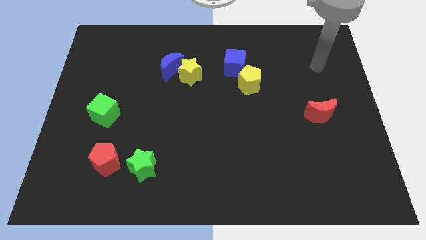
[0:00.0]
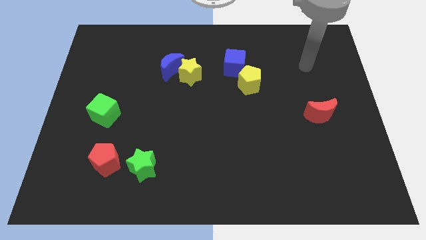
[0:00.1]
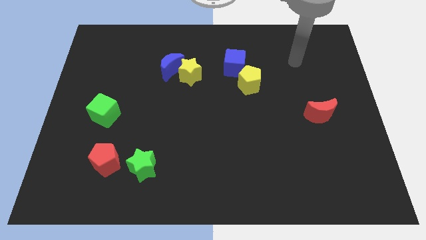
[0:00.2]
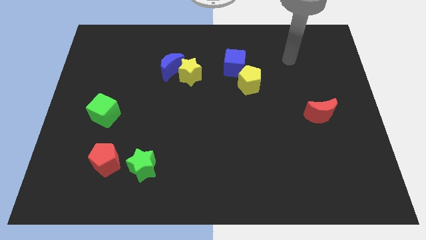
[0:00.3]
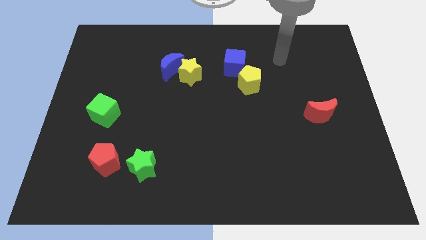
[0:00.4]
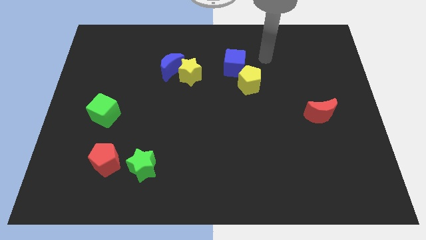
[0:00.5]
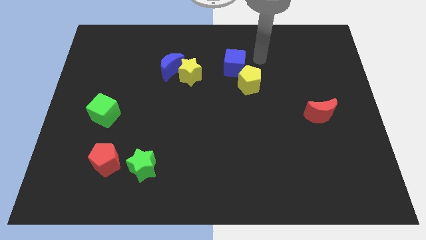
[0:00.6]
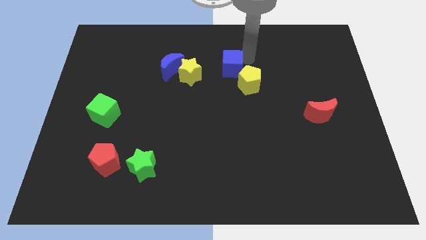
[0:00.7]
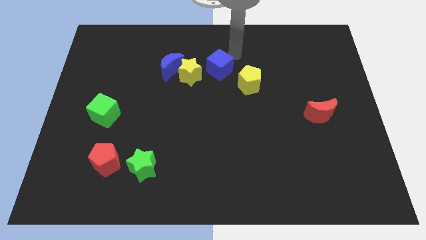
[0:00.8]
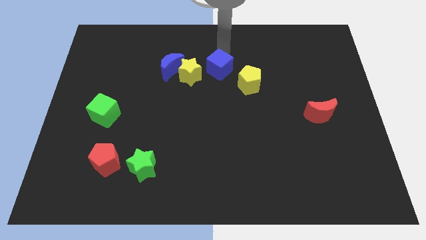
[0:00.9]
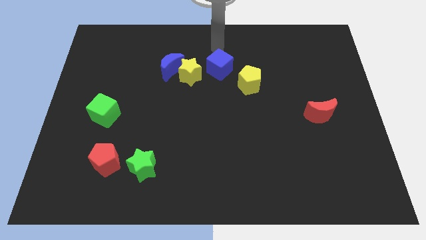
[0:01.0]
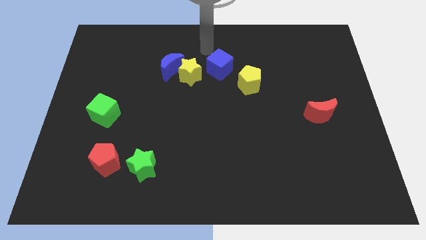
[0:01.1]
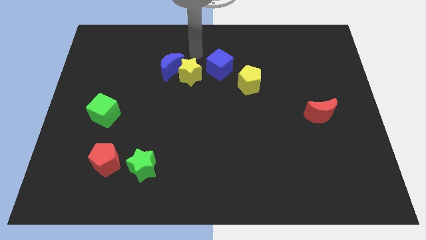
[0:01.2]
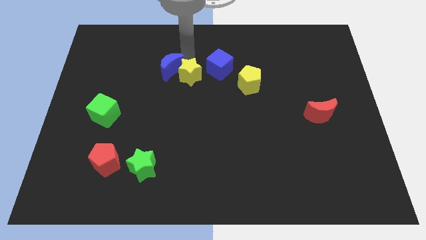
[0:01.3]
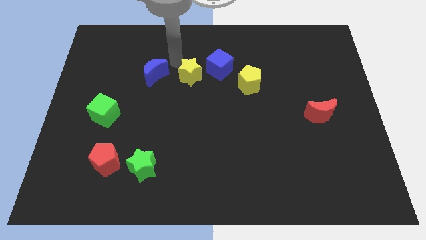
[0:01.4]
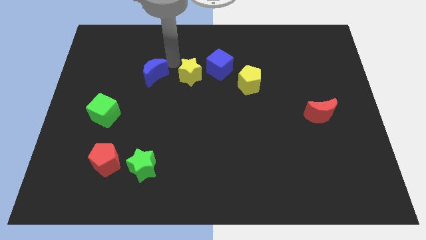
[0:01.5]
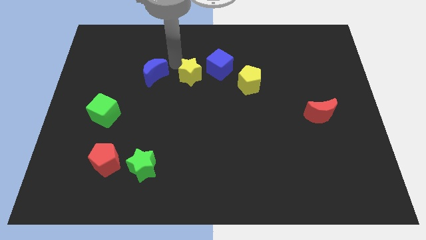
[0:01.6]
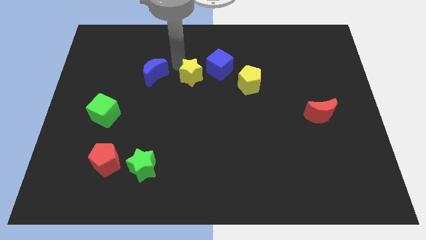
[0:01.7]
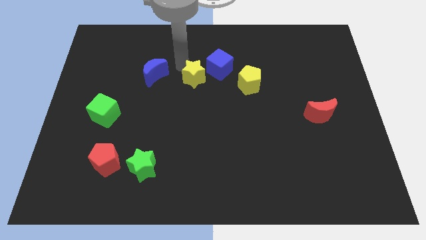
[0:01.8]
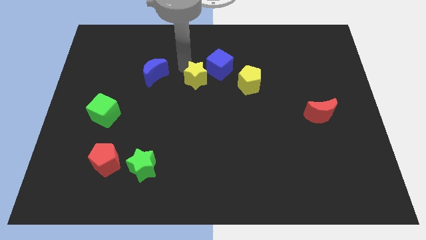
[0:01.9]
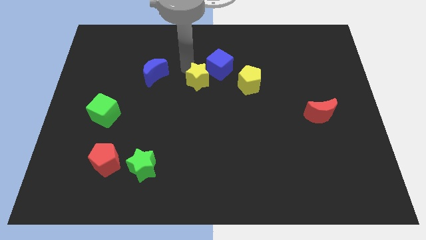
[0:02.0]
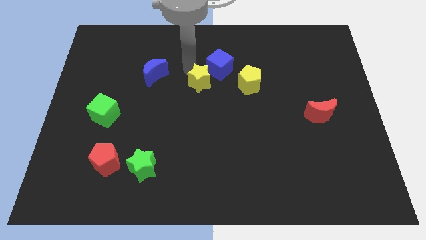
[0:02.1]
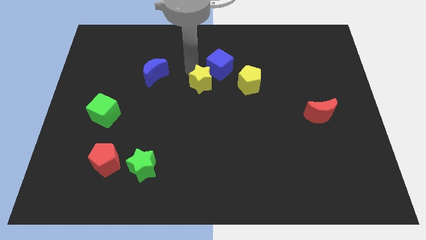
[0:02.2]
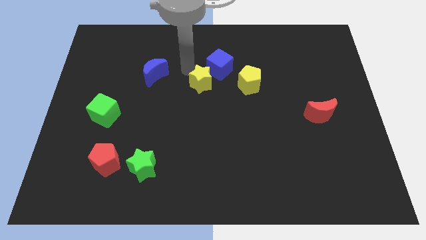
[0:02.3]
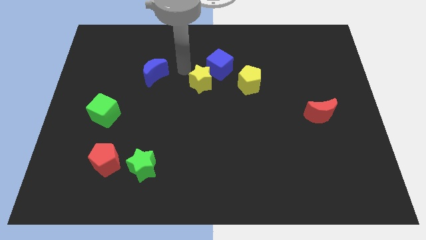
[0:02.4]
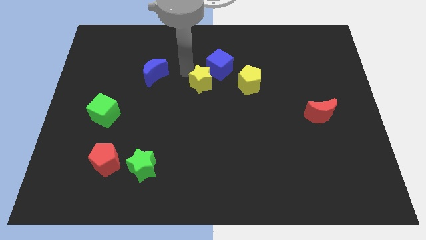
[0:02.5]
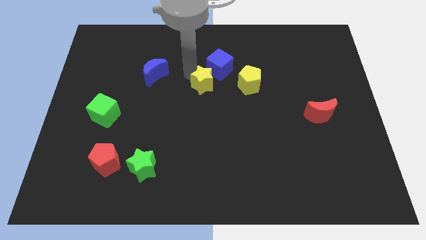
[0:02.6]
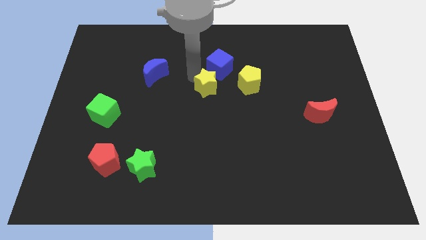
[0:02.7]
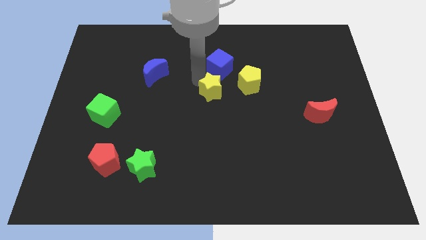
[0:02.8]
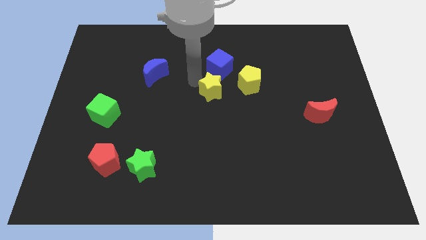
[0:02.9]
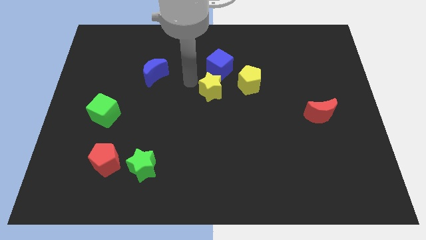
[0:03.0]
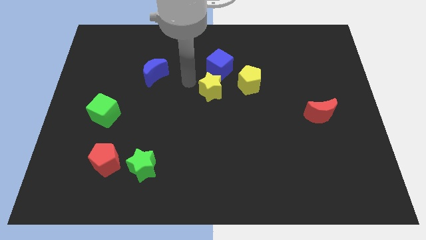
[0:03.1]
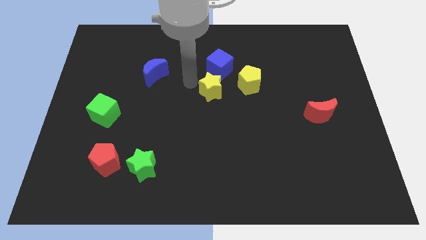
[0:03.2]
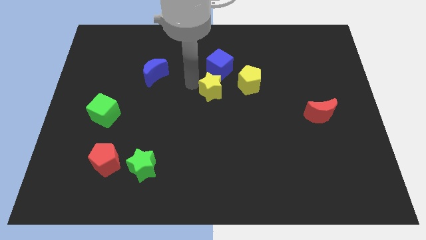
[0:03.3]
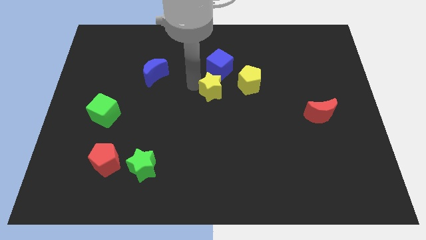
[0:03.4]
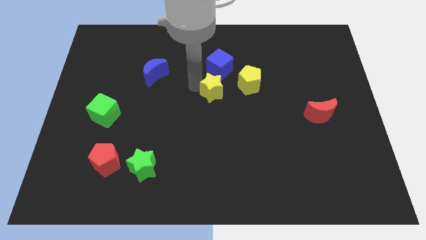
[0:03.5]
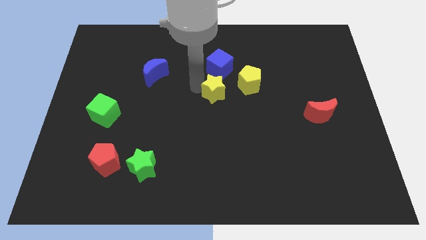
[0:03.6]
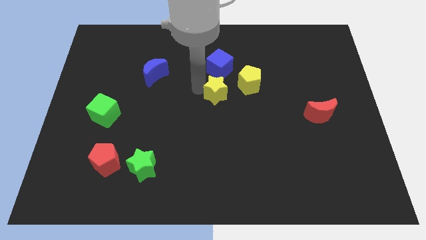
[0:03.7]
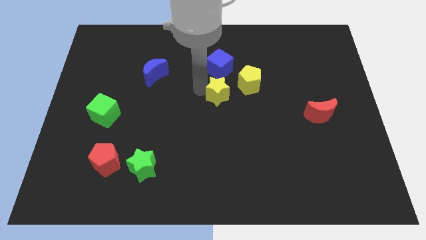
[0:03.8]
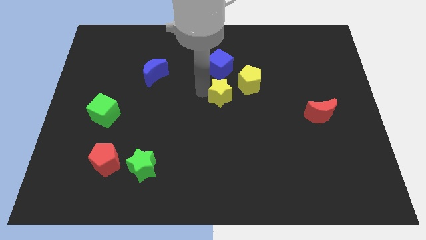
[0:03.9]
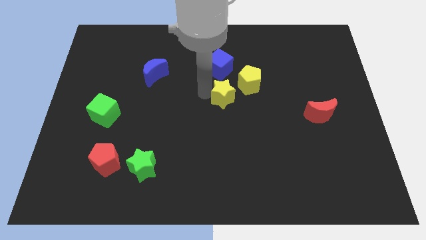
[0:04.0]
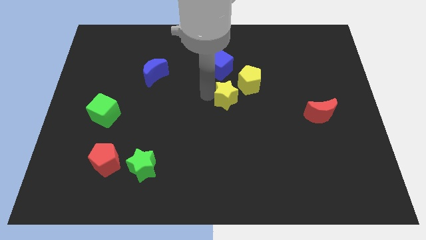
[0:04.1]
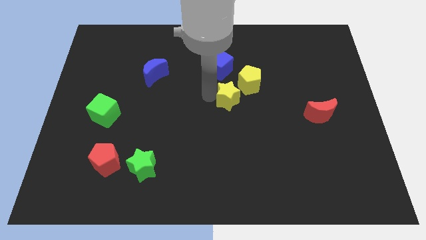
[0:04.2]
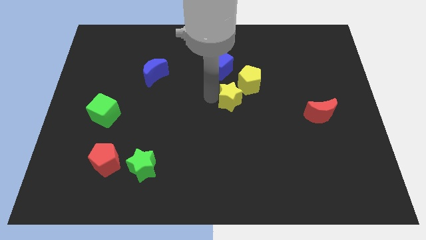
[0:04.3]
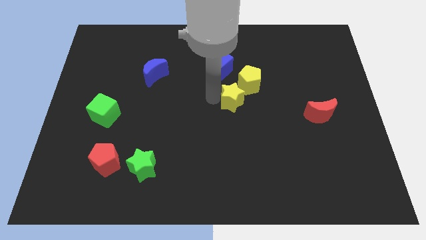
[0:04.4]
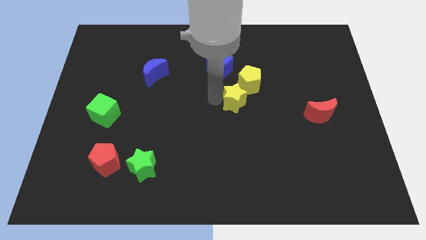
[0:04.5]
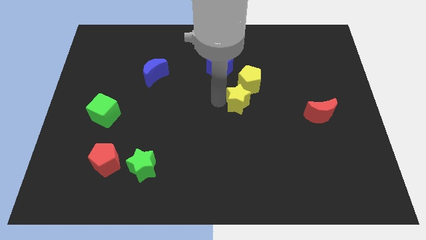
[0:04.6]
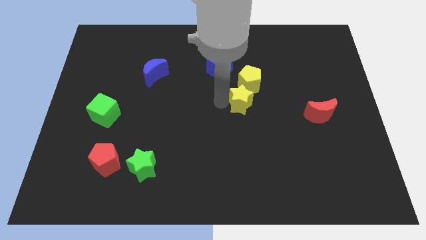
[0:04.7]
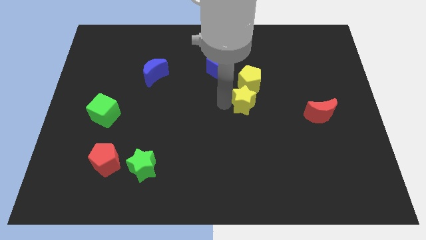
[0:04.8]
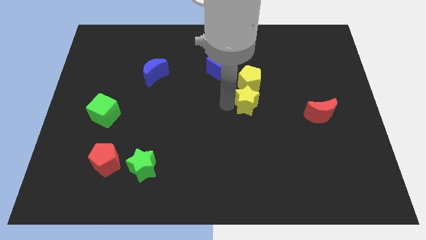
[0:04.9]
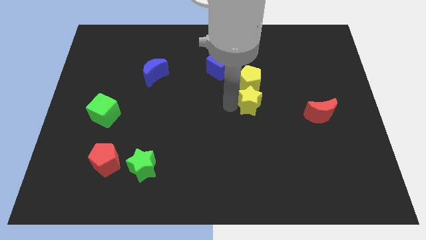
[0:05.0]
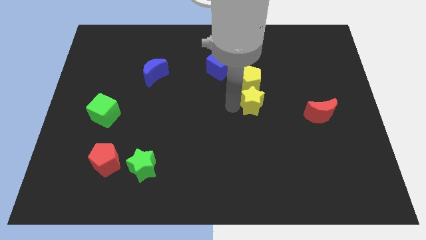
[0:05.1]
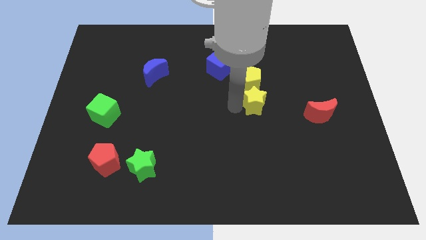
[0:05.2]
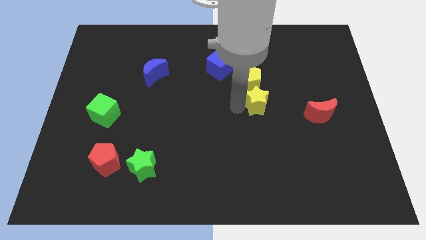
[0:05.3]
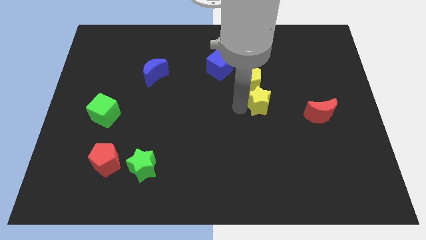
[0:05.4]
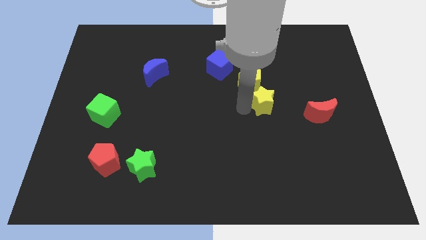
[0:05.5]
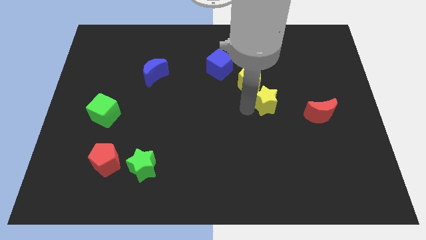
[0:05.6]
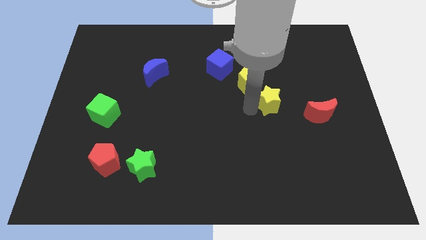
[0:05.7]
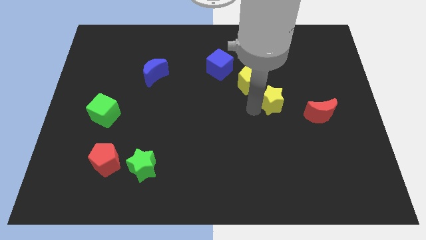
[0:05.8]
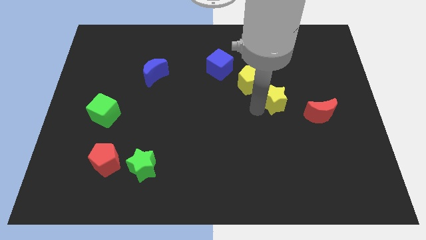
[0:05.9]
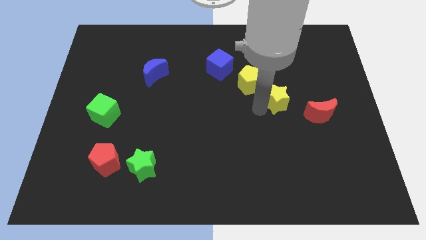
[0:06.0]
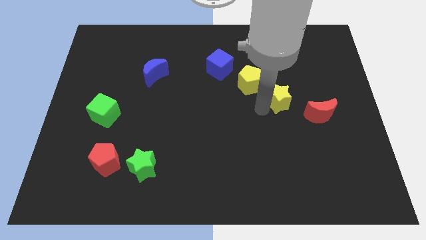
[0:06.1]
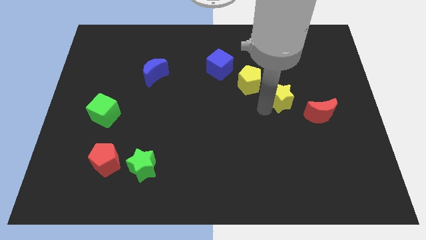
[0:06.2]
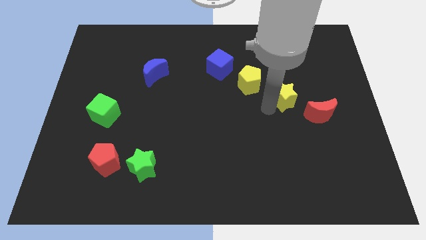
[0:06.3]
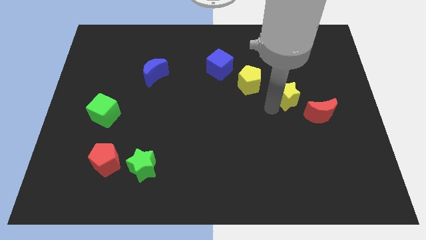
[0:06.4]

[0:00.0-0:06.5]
slide the yellow star to the right

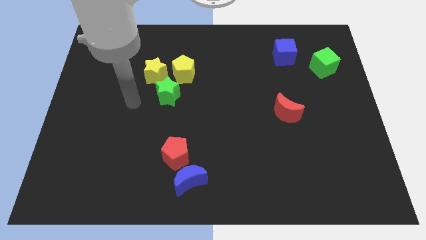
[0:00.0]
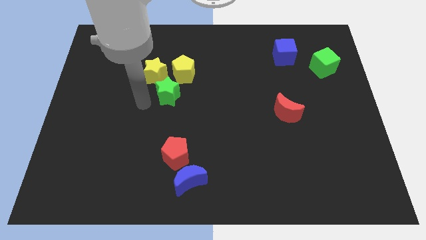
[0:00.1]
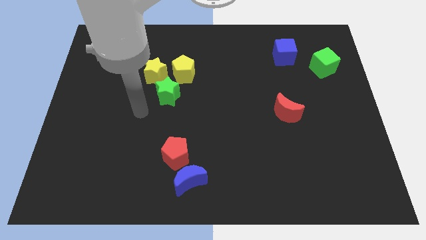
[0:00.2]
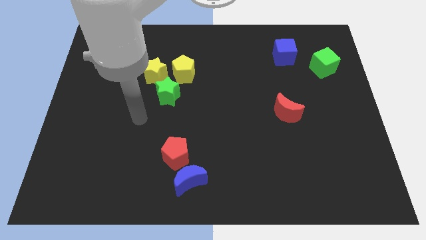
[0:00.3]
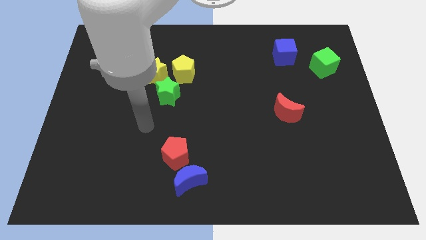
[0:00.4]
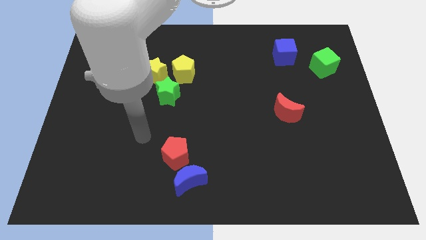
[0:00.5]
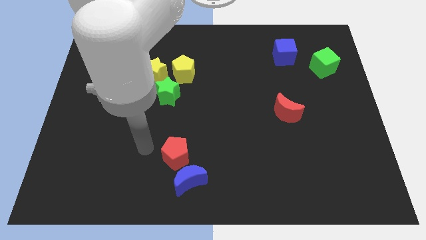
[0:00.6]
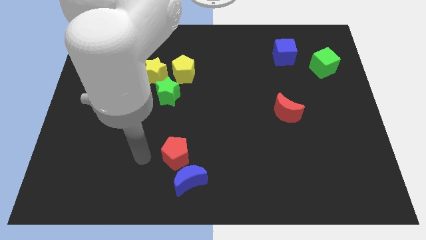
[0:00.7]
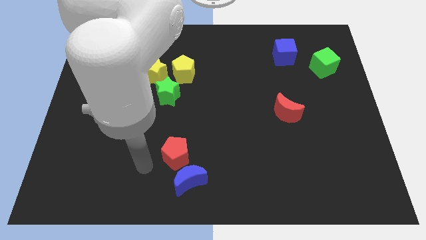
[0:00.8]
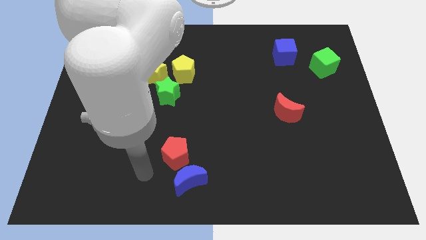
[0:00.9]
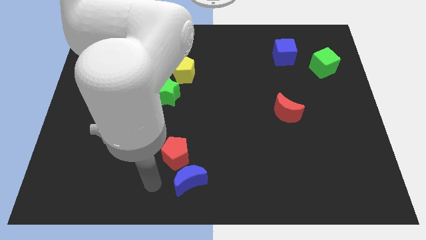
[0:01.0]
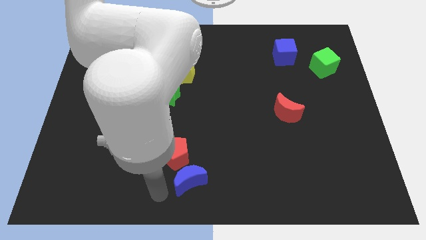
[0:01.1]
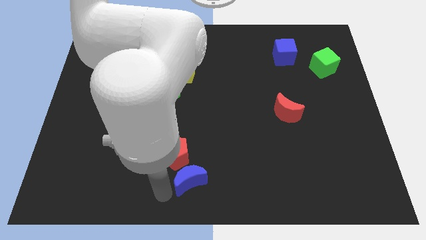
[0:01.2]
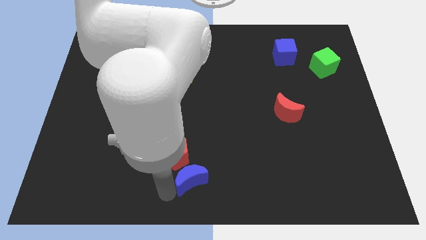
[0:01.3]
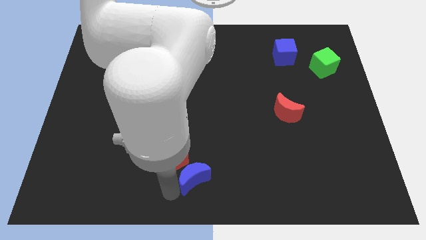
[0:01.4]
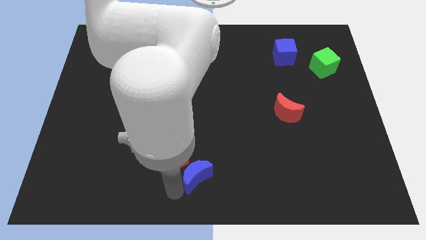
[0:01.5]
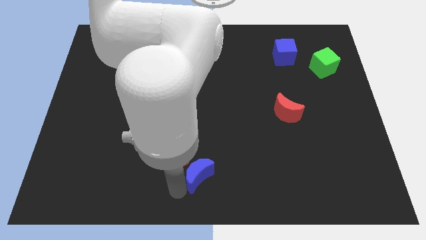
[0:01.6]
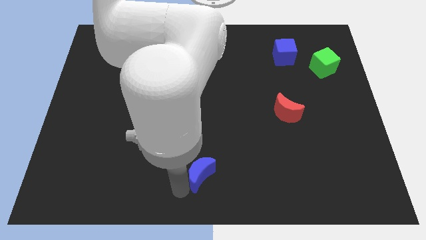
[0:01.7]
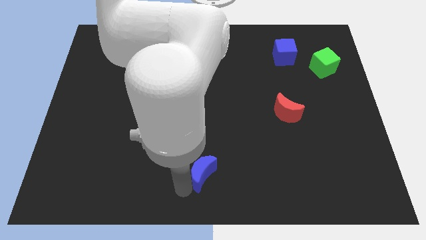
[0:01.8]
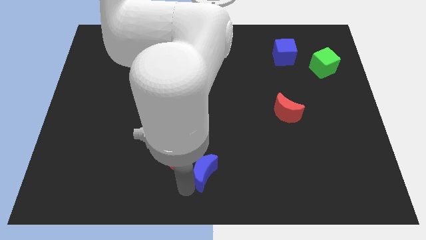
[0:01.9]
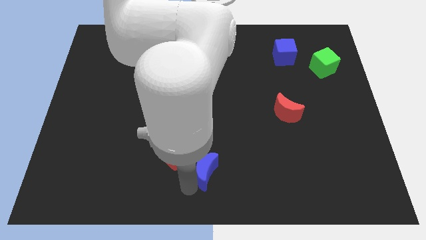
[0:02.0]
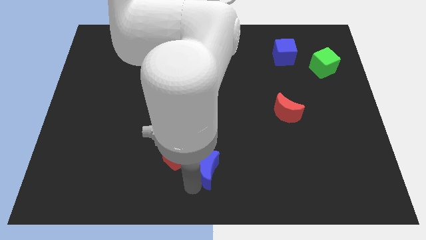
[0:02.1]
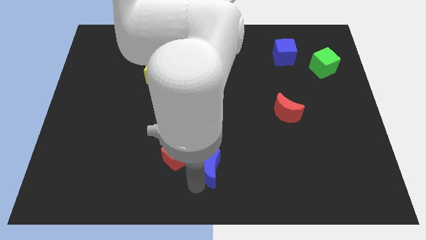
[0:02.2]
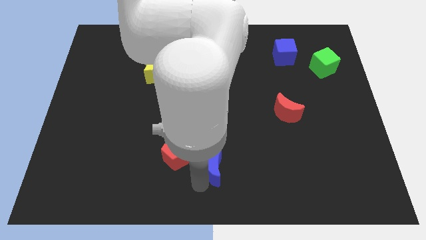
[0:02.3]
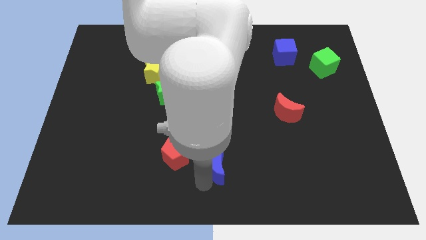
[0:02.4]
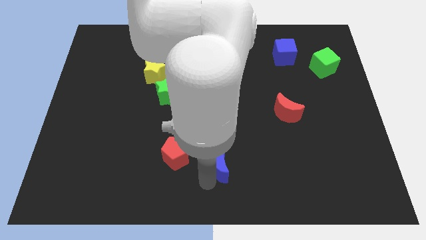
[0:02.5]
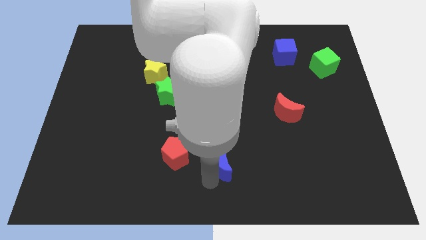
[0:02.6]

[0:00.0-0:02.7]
push the blue moon somewhat up and then right
